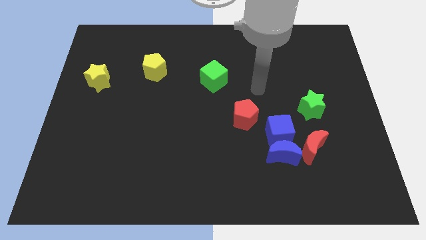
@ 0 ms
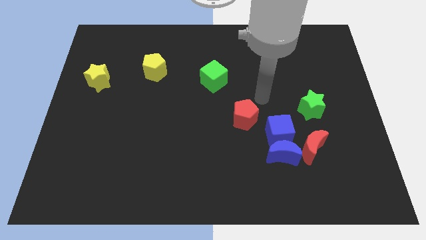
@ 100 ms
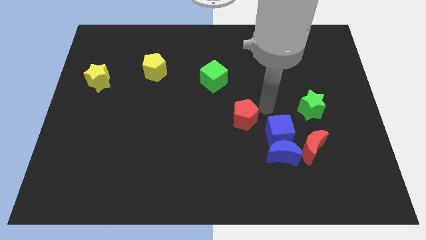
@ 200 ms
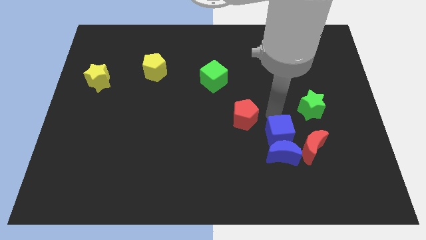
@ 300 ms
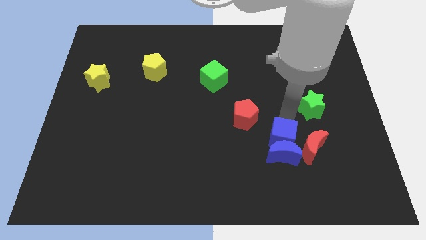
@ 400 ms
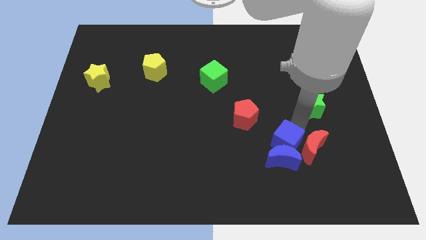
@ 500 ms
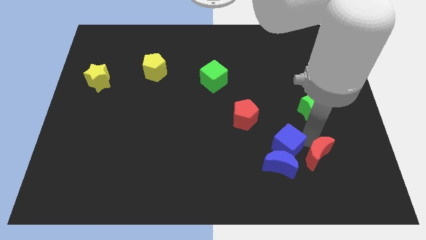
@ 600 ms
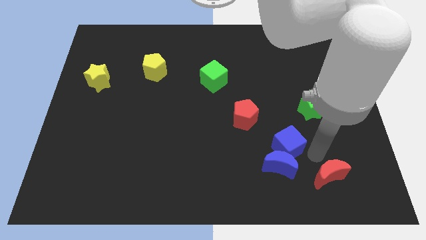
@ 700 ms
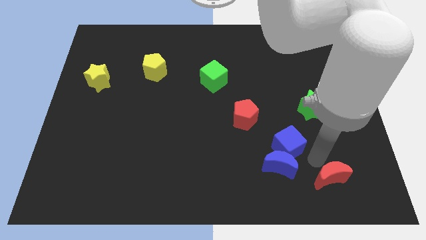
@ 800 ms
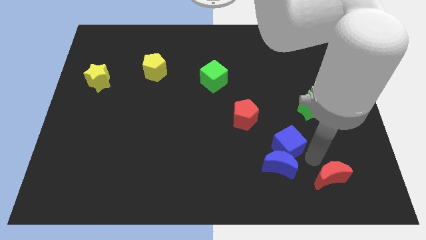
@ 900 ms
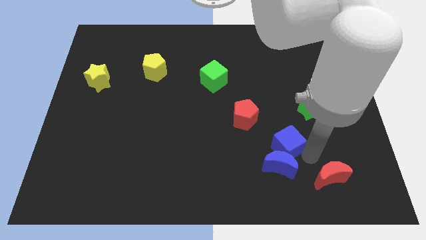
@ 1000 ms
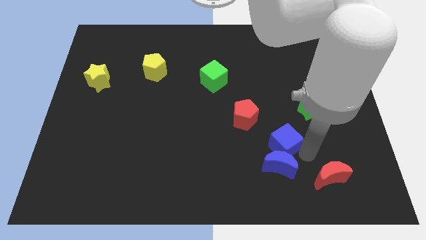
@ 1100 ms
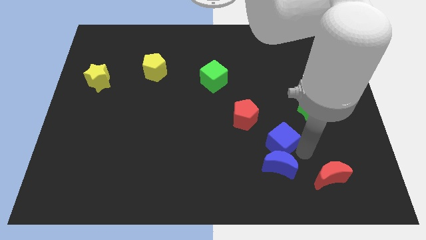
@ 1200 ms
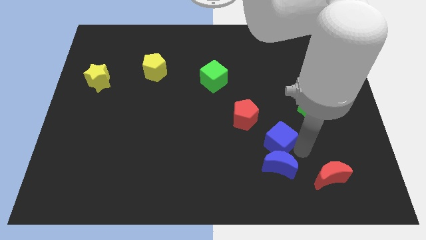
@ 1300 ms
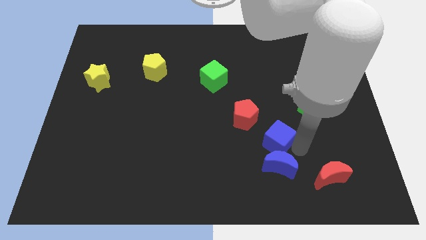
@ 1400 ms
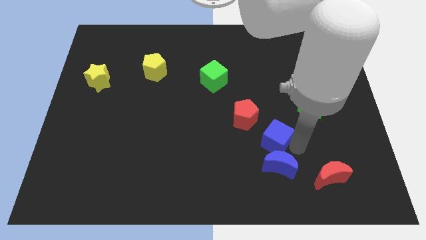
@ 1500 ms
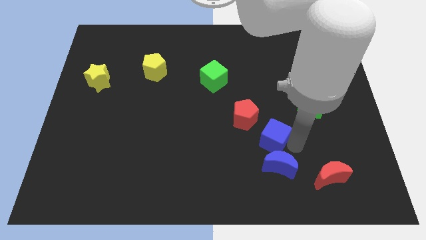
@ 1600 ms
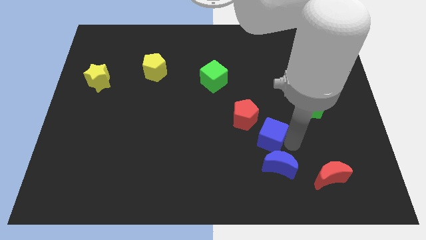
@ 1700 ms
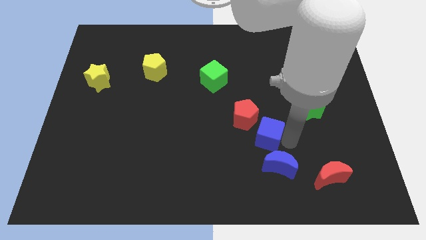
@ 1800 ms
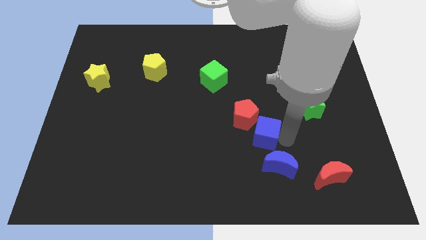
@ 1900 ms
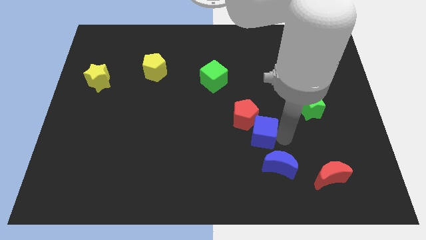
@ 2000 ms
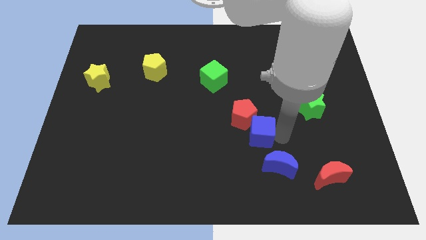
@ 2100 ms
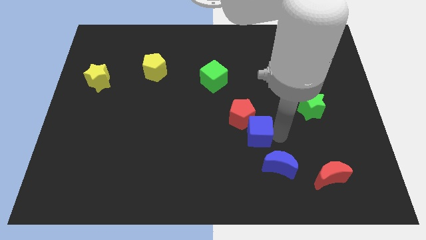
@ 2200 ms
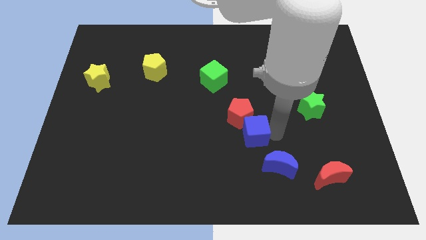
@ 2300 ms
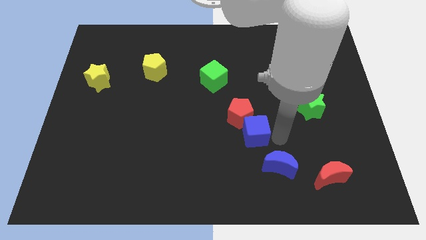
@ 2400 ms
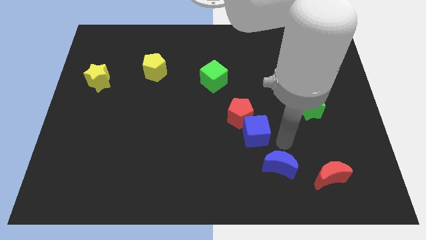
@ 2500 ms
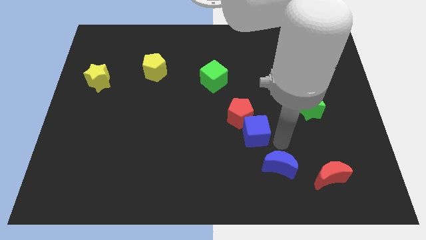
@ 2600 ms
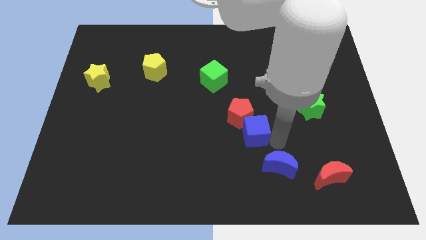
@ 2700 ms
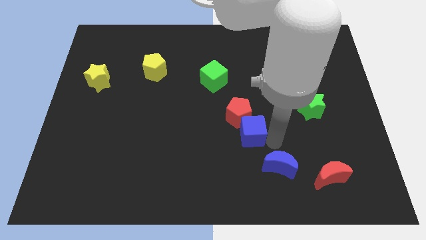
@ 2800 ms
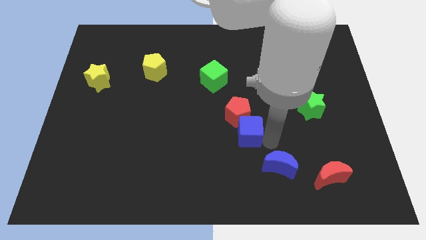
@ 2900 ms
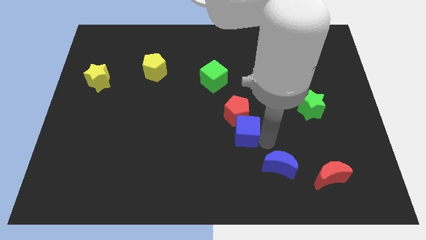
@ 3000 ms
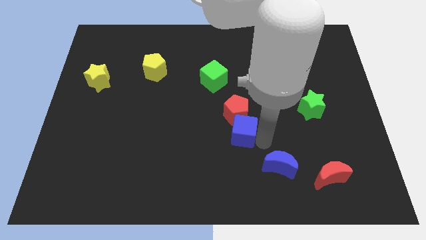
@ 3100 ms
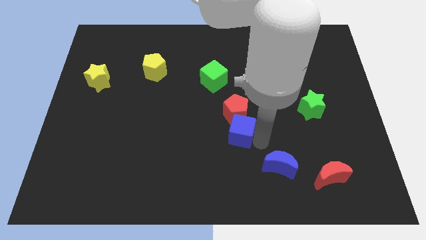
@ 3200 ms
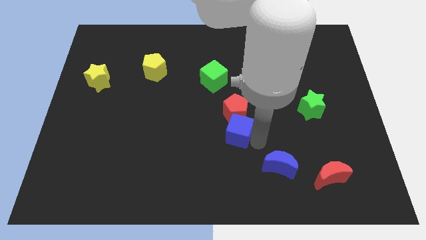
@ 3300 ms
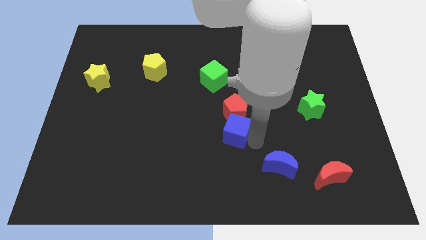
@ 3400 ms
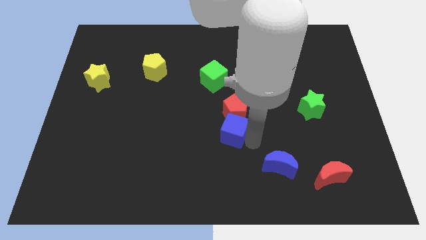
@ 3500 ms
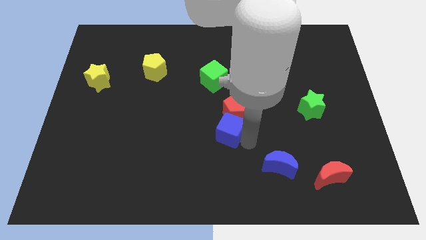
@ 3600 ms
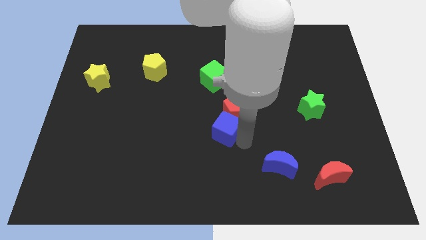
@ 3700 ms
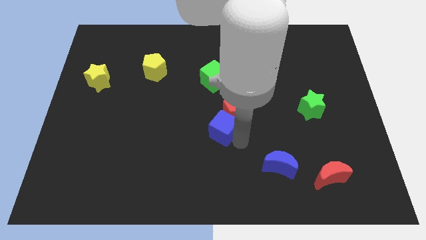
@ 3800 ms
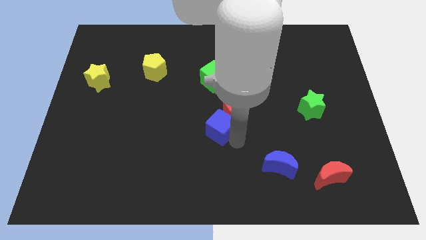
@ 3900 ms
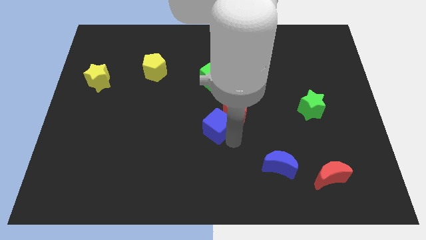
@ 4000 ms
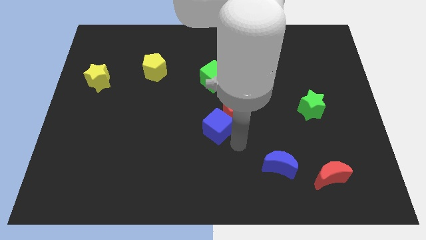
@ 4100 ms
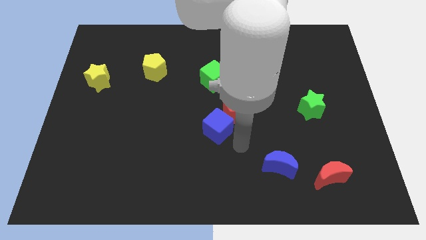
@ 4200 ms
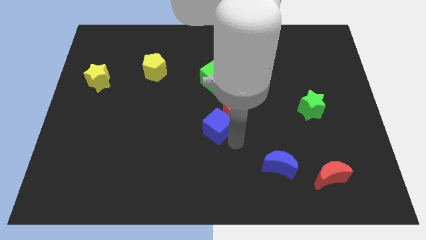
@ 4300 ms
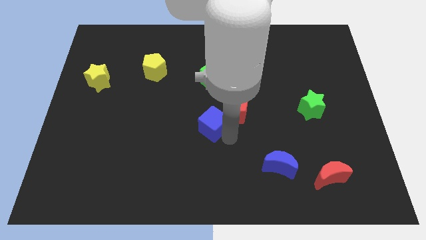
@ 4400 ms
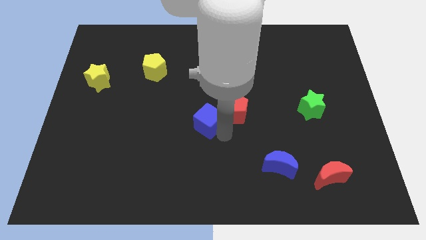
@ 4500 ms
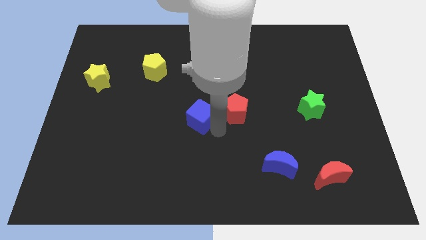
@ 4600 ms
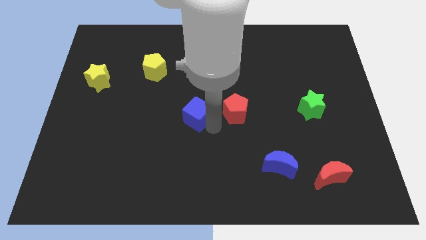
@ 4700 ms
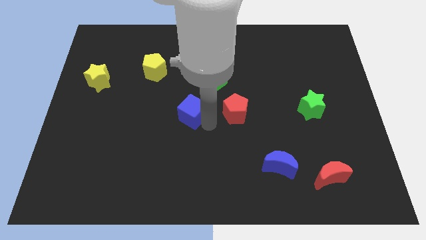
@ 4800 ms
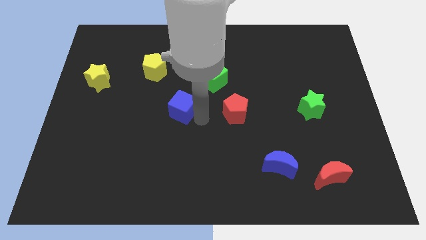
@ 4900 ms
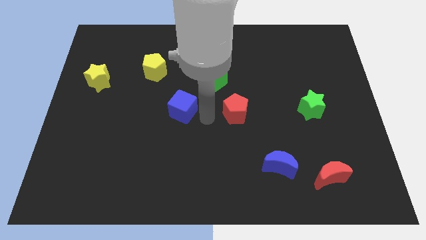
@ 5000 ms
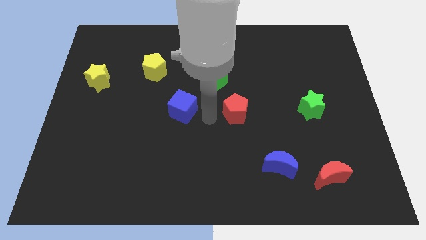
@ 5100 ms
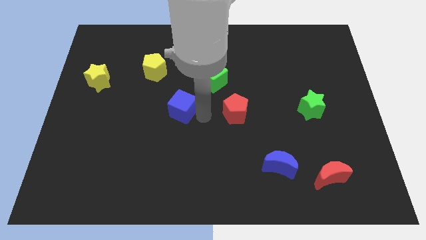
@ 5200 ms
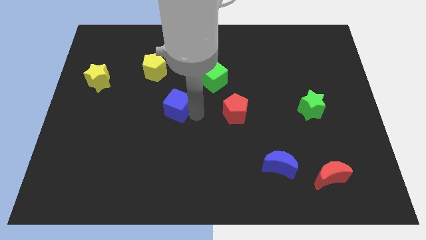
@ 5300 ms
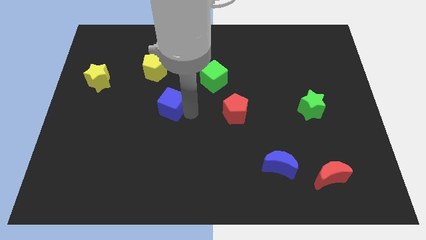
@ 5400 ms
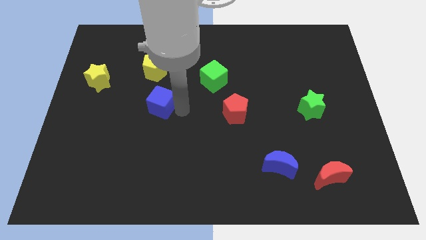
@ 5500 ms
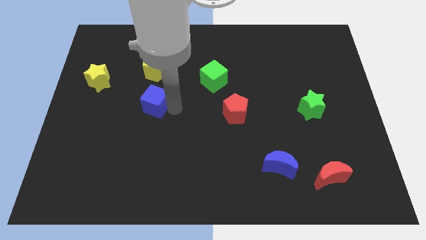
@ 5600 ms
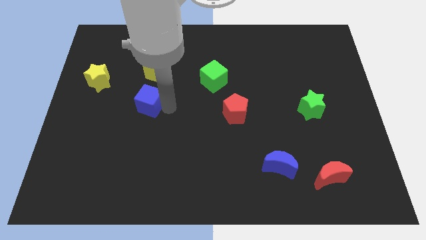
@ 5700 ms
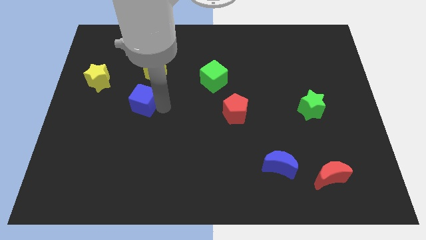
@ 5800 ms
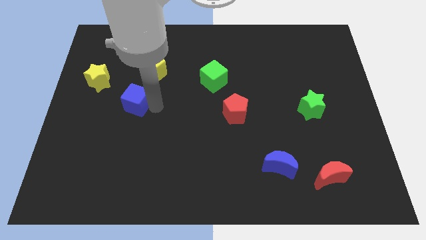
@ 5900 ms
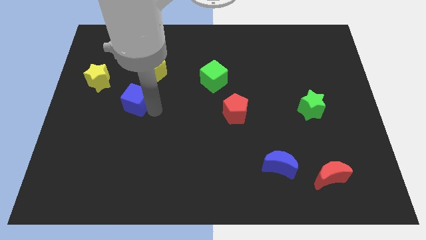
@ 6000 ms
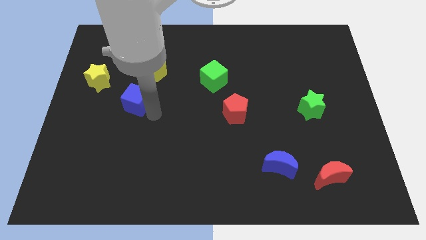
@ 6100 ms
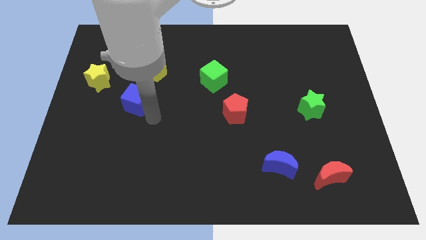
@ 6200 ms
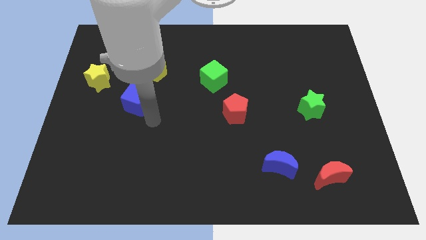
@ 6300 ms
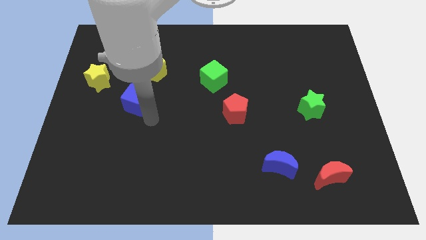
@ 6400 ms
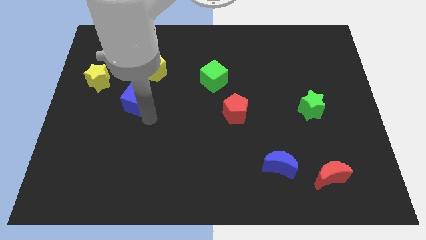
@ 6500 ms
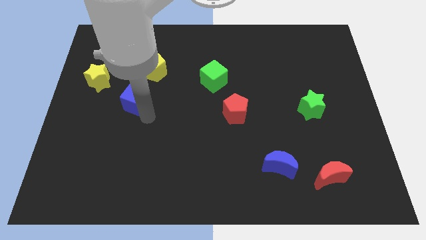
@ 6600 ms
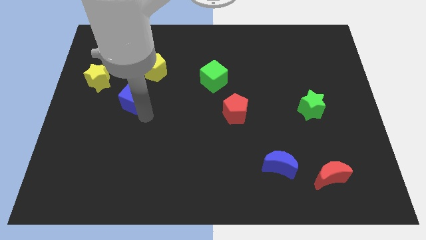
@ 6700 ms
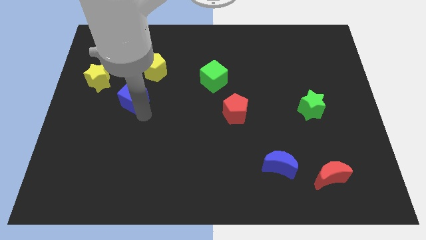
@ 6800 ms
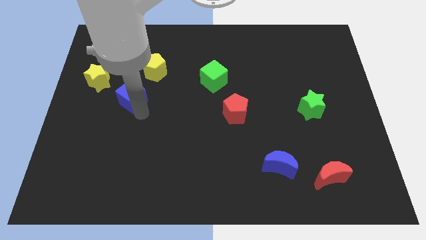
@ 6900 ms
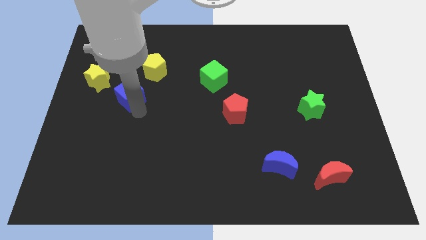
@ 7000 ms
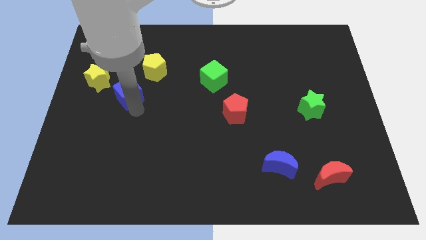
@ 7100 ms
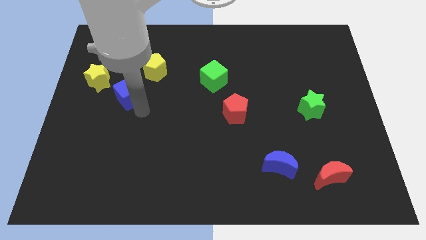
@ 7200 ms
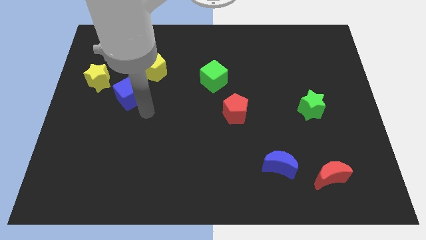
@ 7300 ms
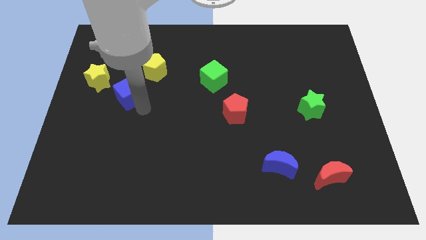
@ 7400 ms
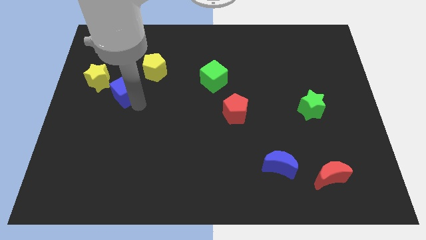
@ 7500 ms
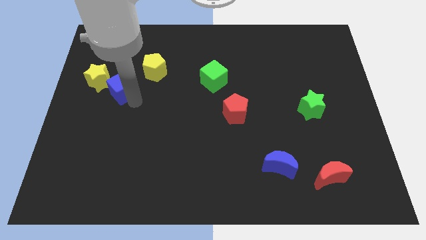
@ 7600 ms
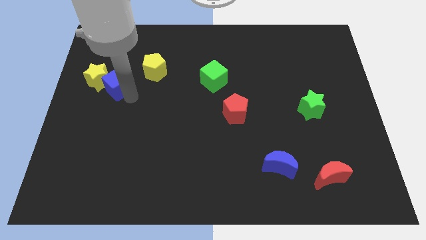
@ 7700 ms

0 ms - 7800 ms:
slide the blue cube close to the yellow star
